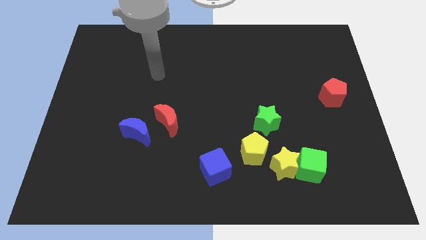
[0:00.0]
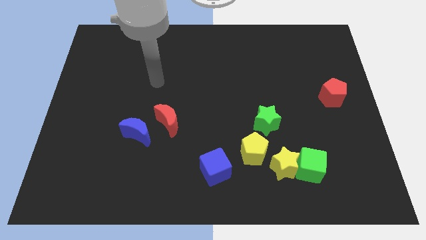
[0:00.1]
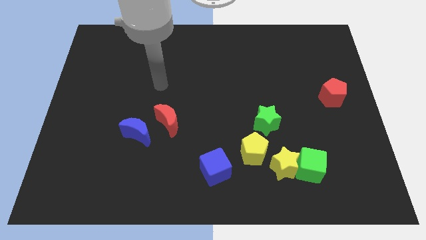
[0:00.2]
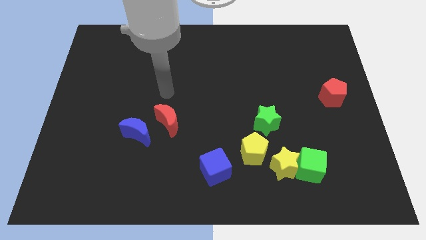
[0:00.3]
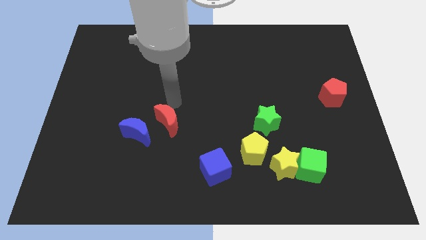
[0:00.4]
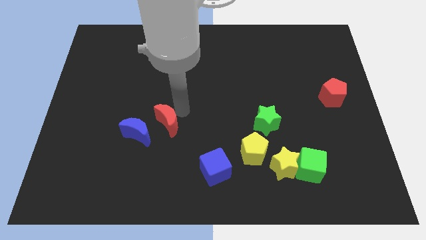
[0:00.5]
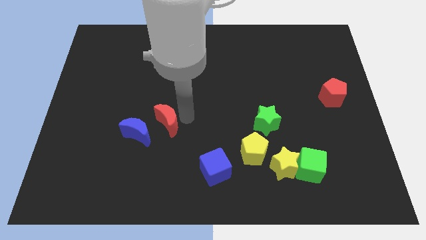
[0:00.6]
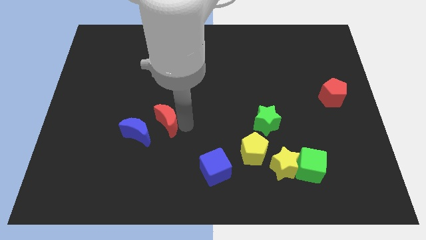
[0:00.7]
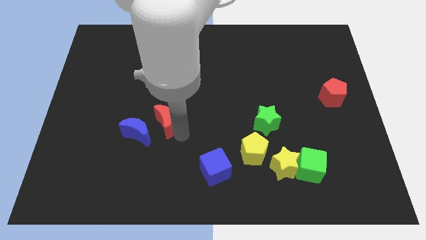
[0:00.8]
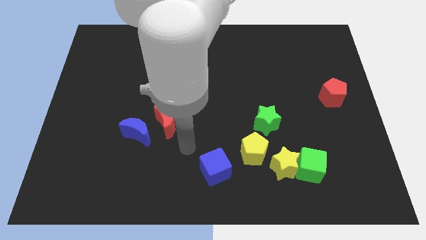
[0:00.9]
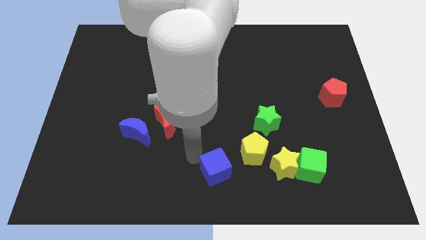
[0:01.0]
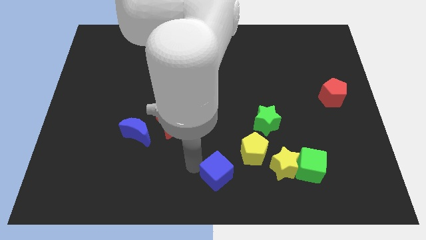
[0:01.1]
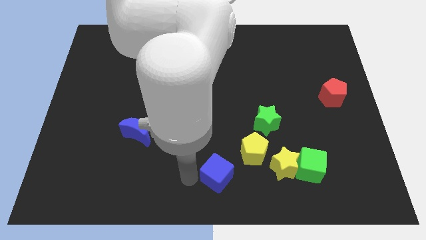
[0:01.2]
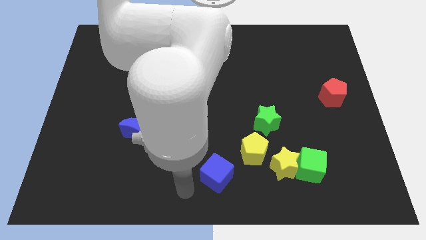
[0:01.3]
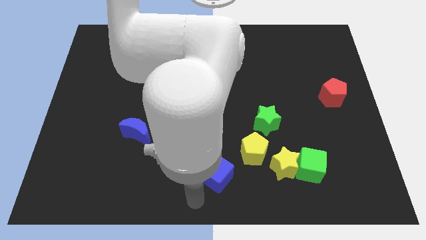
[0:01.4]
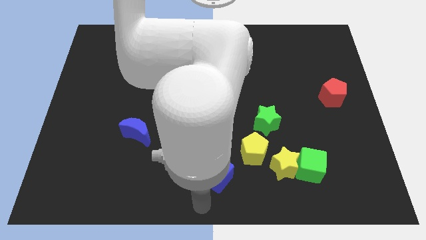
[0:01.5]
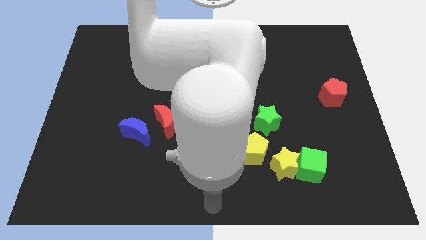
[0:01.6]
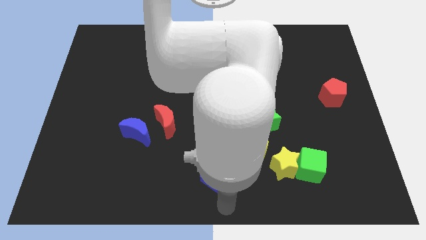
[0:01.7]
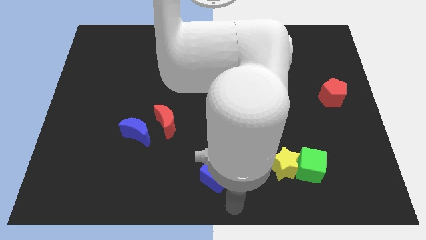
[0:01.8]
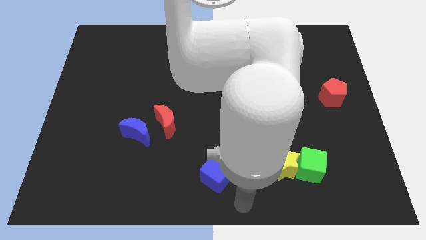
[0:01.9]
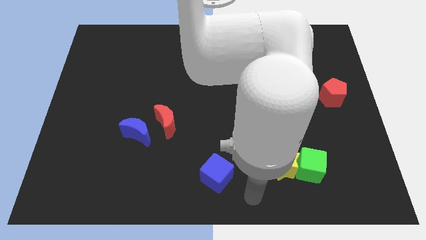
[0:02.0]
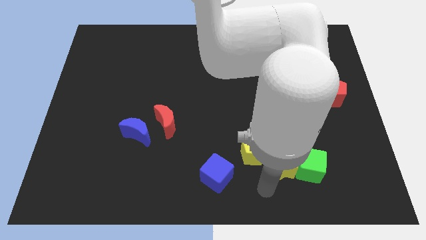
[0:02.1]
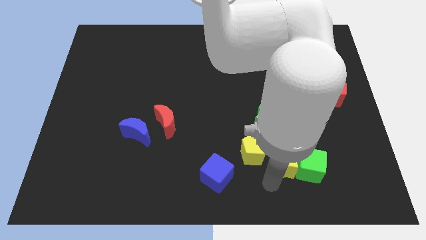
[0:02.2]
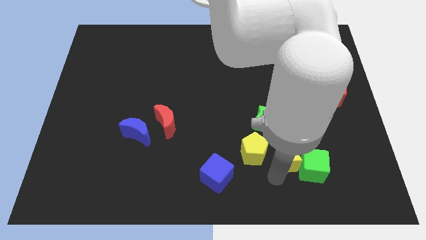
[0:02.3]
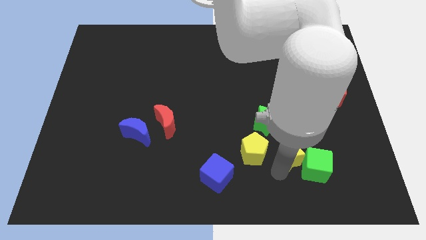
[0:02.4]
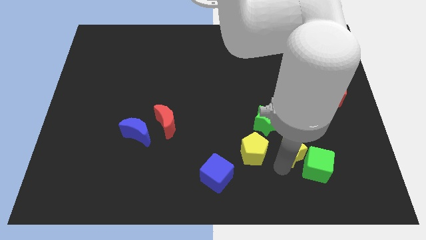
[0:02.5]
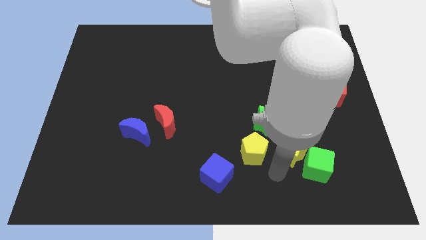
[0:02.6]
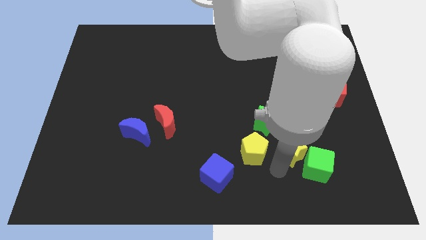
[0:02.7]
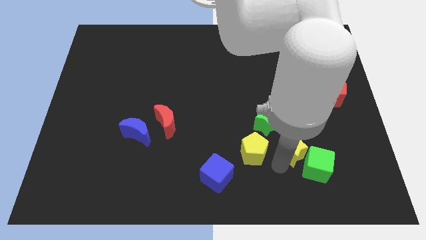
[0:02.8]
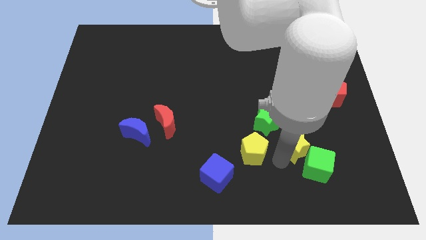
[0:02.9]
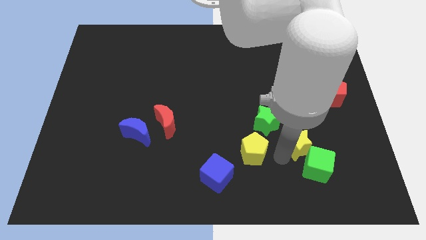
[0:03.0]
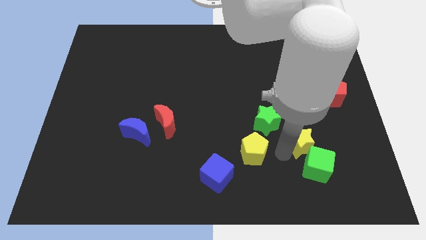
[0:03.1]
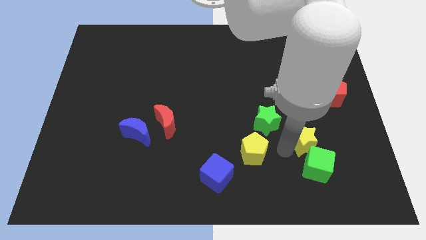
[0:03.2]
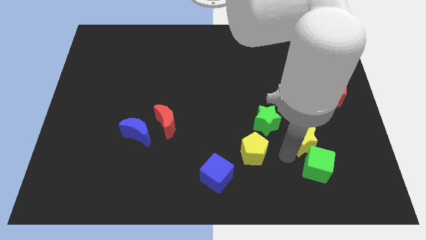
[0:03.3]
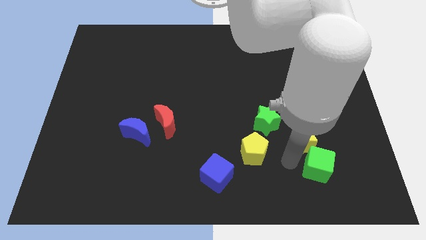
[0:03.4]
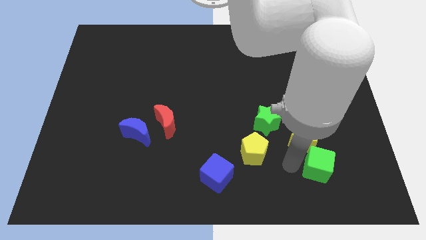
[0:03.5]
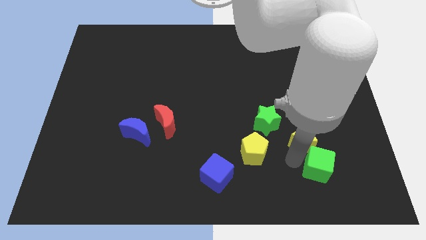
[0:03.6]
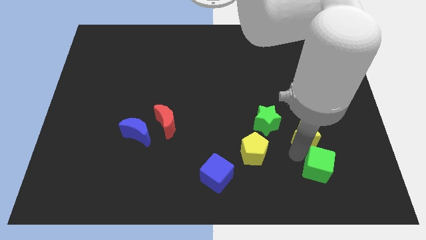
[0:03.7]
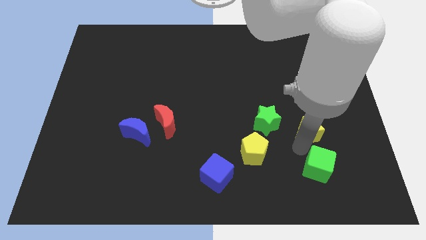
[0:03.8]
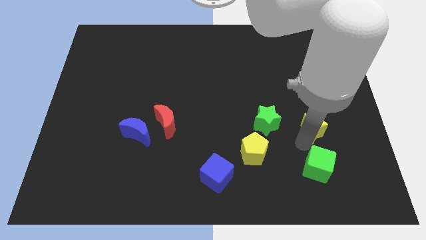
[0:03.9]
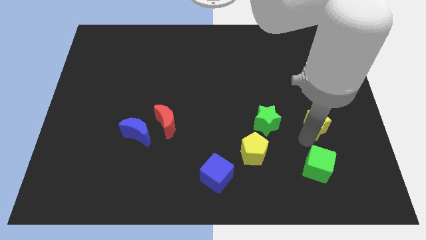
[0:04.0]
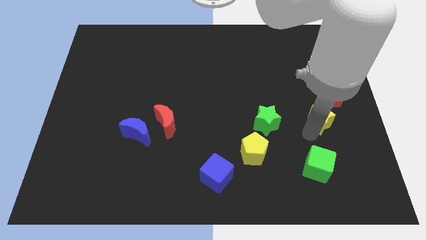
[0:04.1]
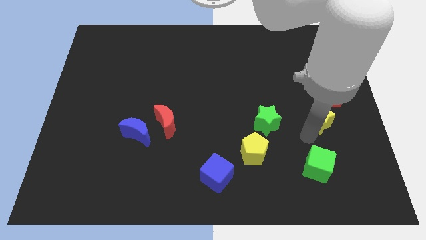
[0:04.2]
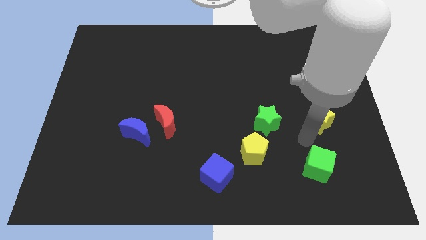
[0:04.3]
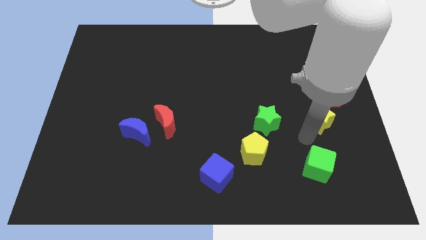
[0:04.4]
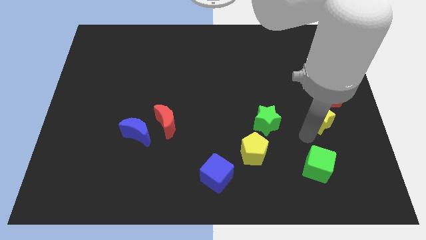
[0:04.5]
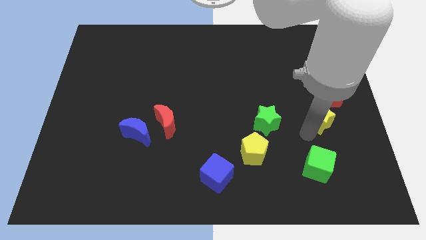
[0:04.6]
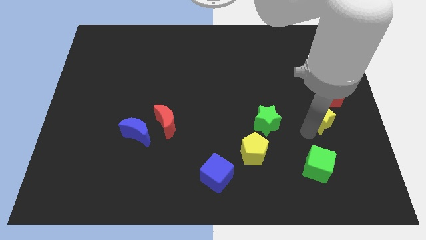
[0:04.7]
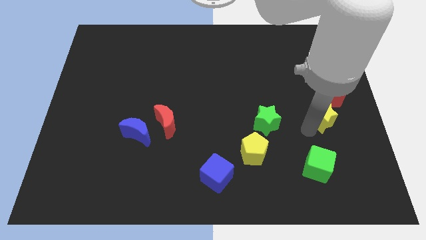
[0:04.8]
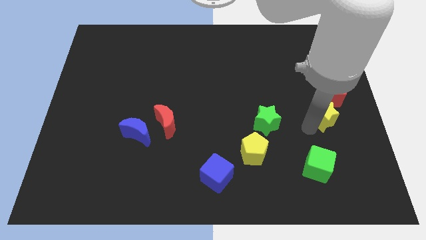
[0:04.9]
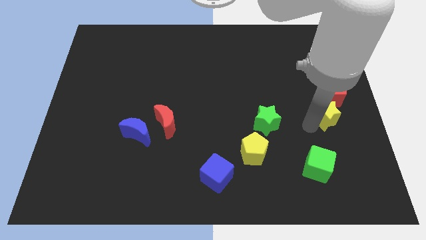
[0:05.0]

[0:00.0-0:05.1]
slide the yellow star to the right side

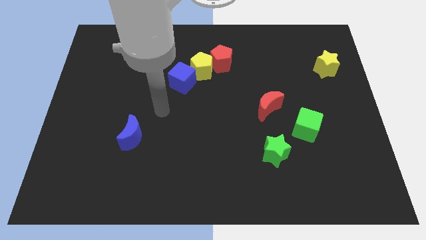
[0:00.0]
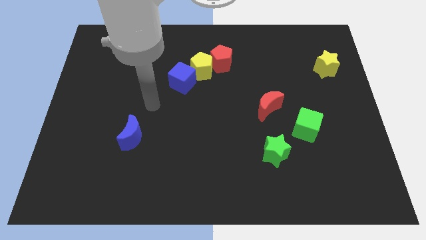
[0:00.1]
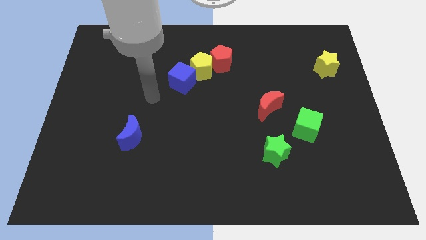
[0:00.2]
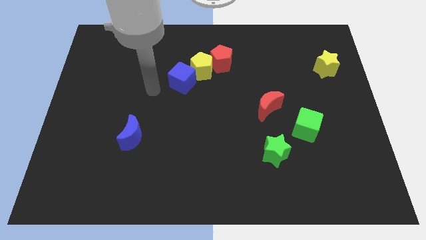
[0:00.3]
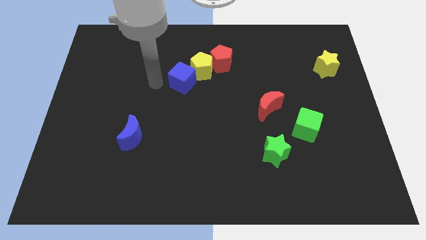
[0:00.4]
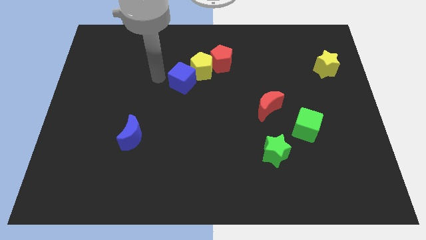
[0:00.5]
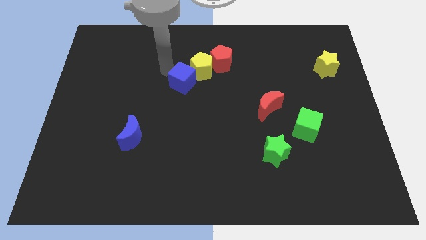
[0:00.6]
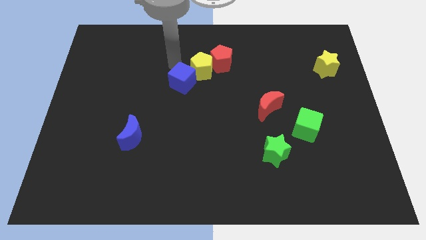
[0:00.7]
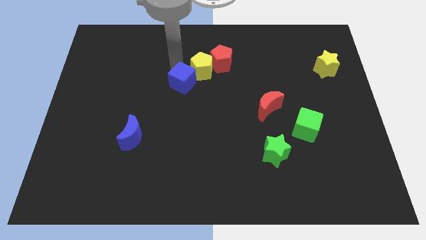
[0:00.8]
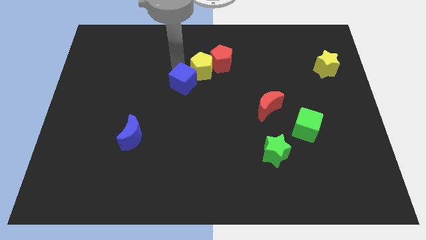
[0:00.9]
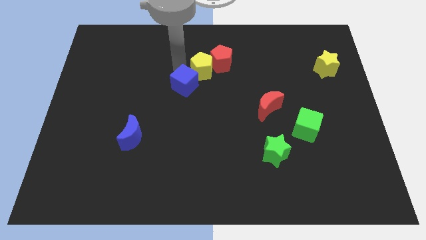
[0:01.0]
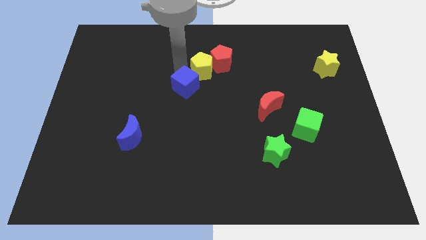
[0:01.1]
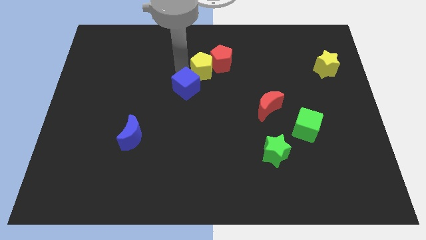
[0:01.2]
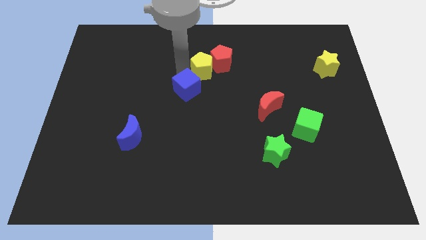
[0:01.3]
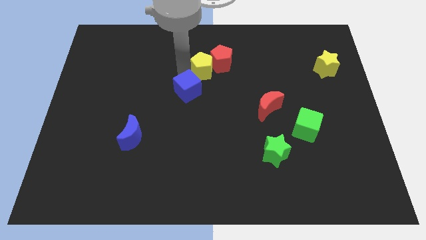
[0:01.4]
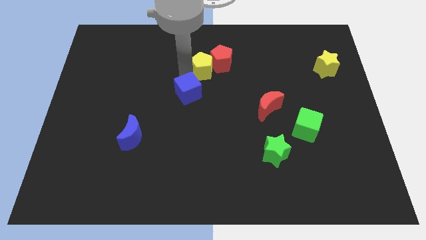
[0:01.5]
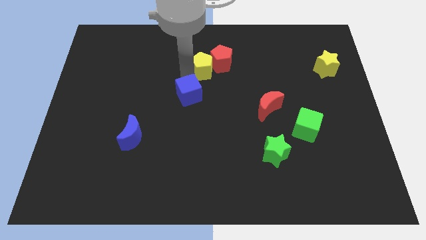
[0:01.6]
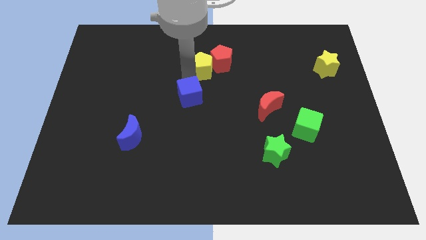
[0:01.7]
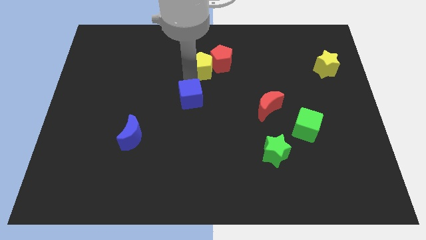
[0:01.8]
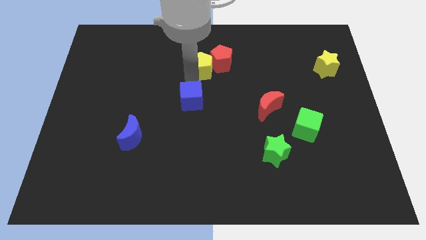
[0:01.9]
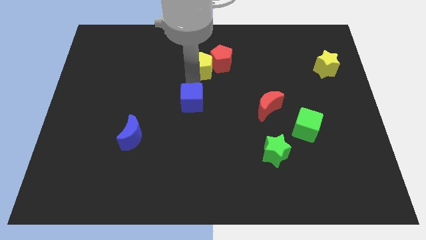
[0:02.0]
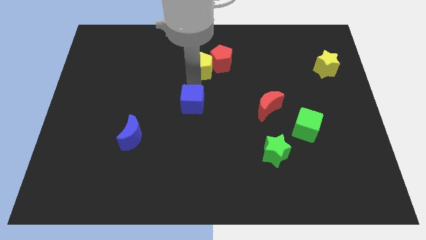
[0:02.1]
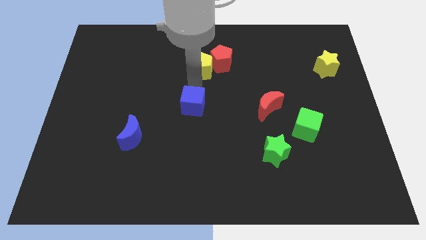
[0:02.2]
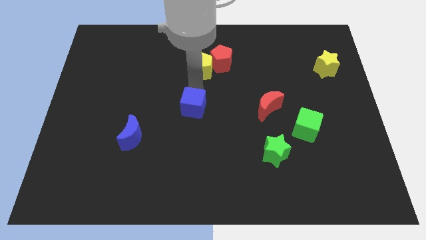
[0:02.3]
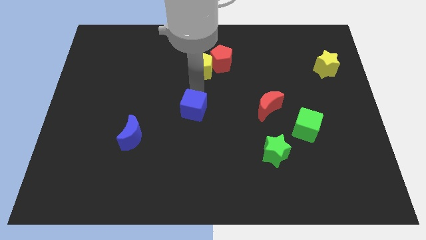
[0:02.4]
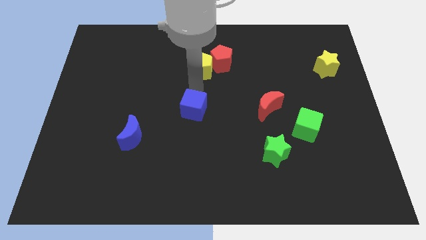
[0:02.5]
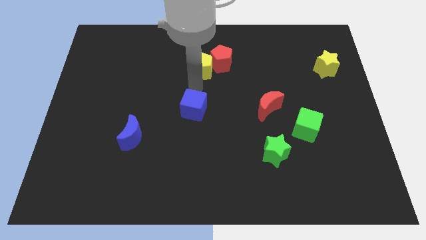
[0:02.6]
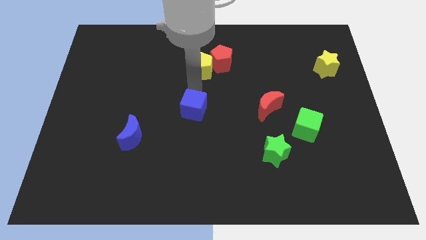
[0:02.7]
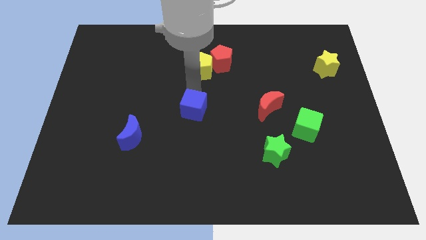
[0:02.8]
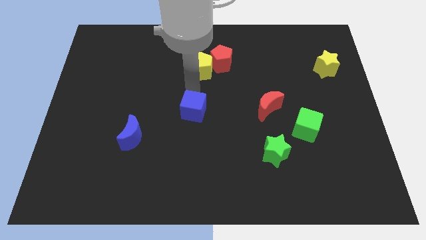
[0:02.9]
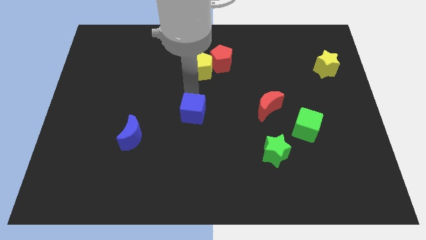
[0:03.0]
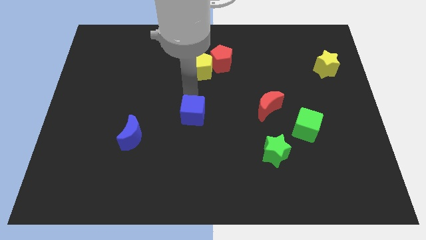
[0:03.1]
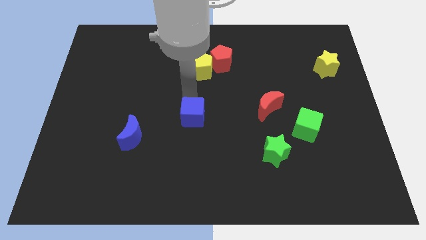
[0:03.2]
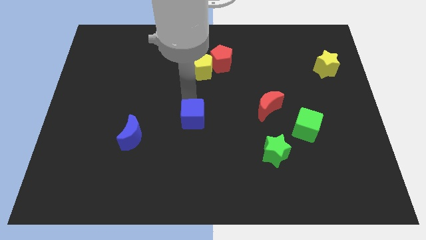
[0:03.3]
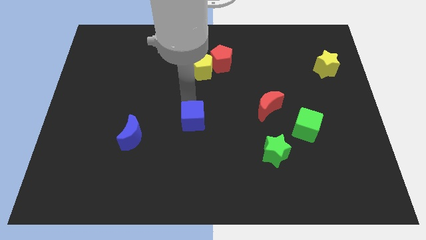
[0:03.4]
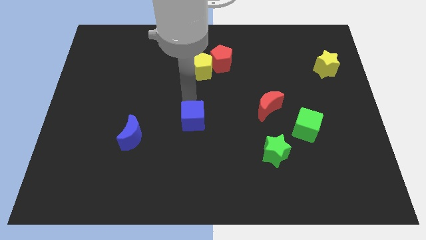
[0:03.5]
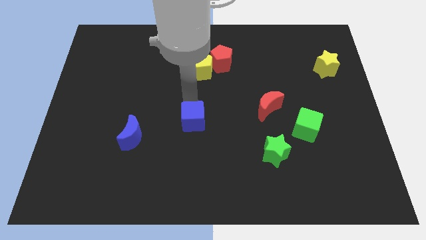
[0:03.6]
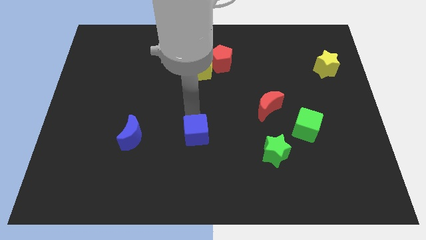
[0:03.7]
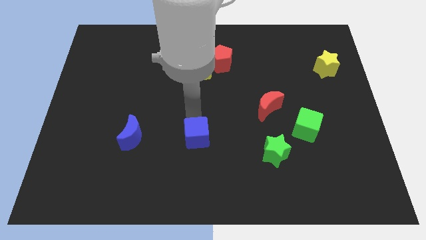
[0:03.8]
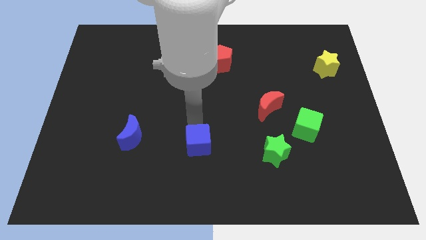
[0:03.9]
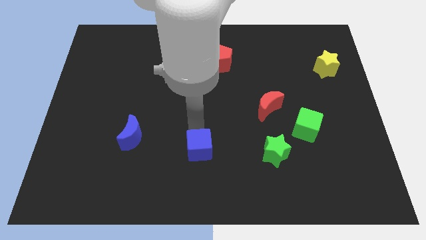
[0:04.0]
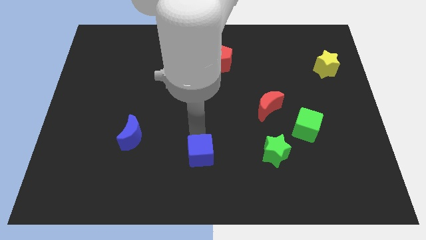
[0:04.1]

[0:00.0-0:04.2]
push the blue cube to the bottom
